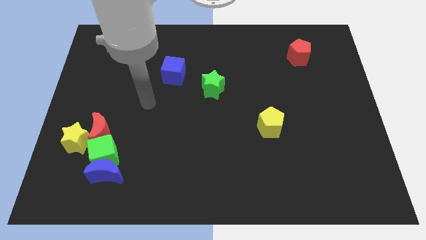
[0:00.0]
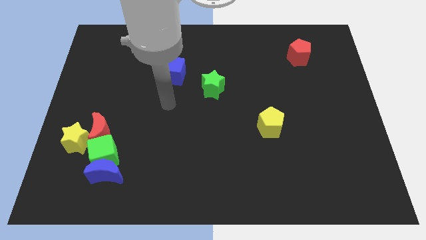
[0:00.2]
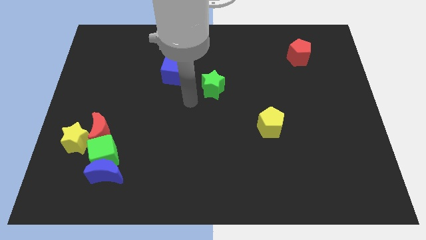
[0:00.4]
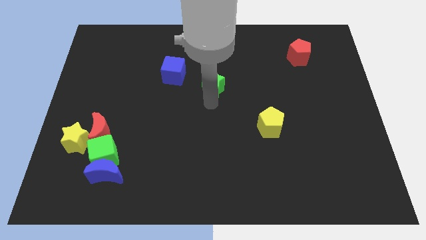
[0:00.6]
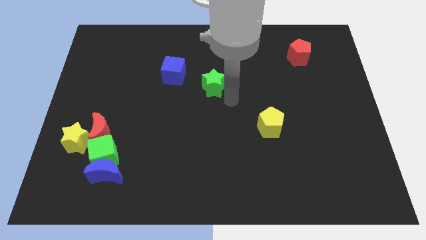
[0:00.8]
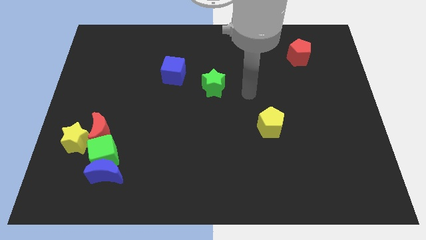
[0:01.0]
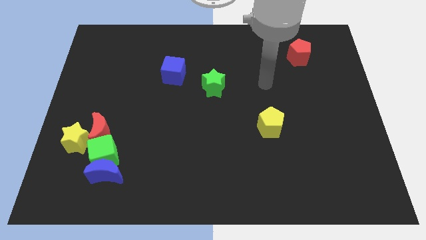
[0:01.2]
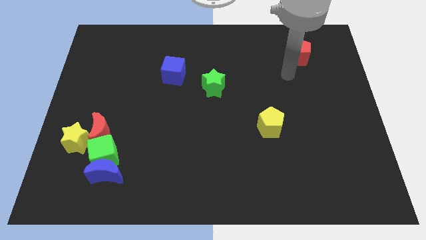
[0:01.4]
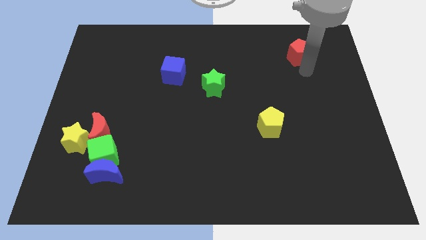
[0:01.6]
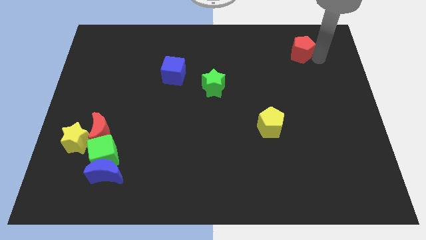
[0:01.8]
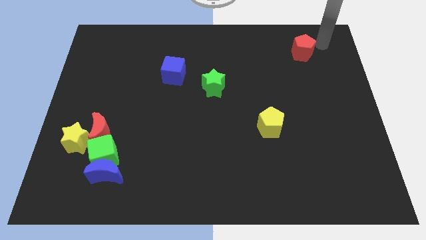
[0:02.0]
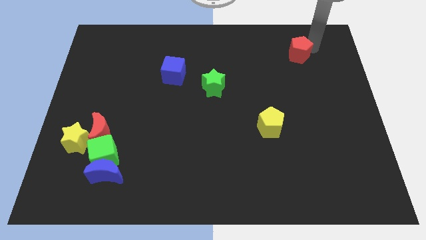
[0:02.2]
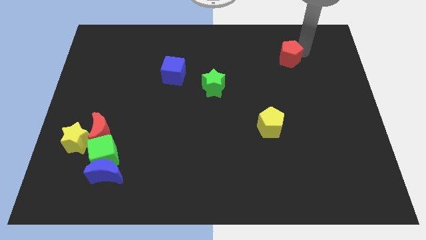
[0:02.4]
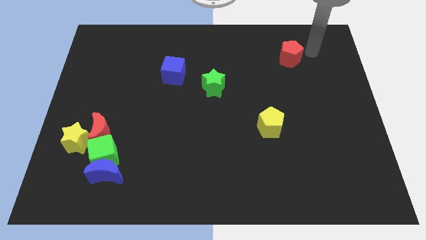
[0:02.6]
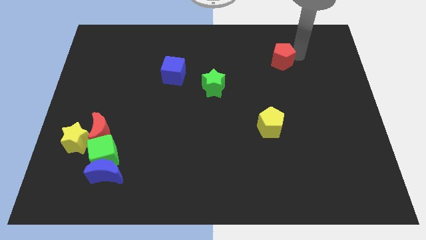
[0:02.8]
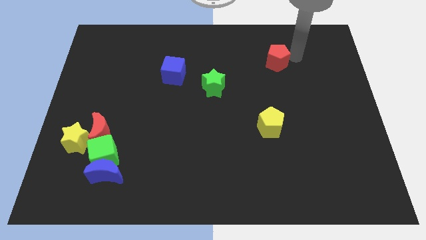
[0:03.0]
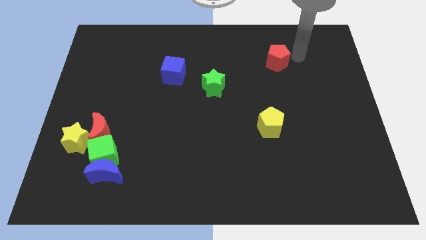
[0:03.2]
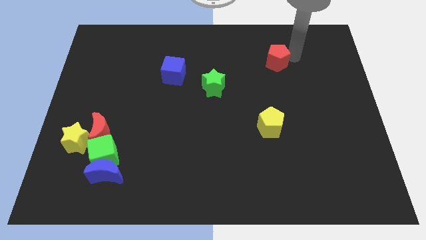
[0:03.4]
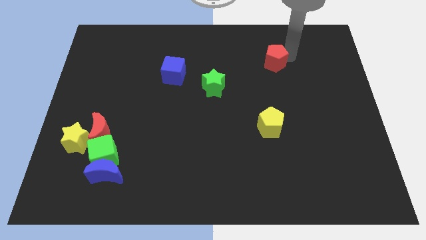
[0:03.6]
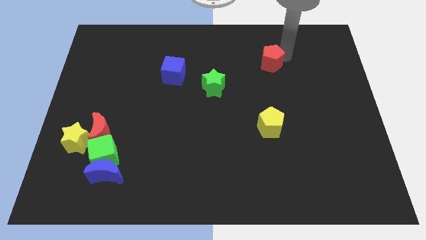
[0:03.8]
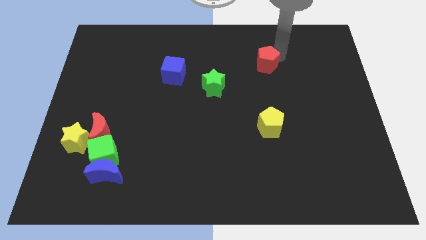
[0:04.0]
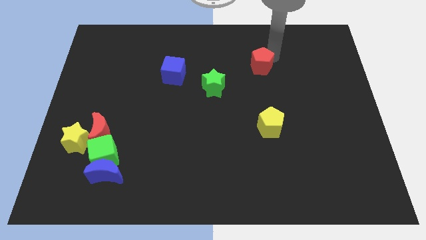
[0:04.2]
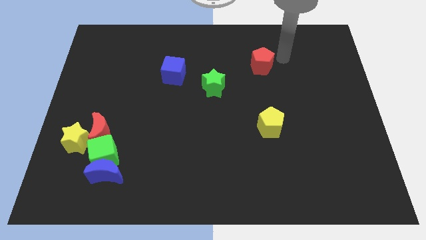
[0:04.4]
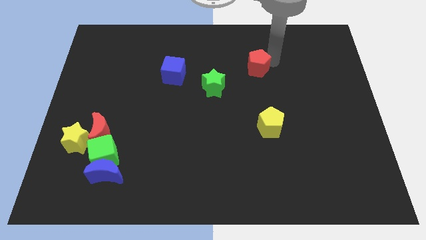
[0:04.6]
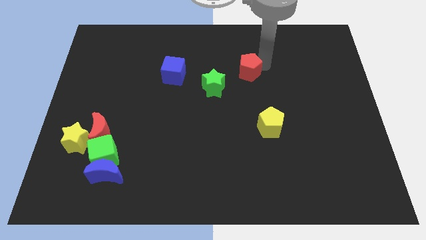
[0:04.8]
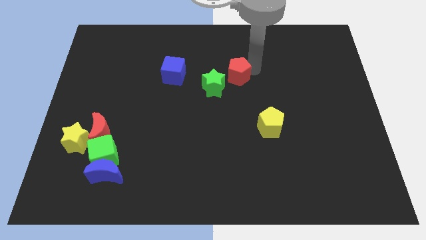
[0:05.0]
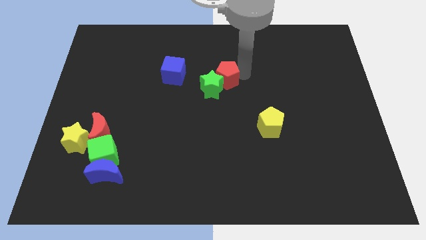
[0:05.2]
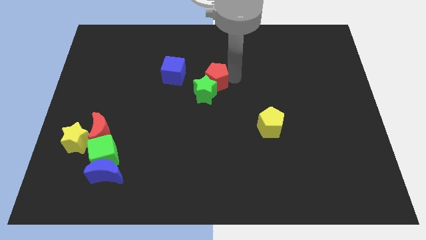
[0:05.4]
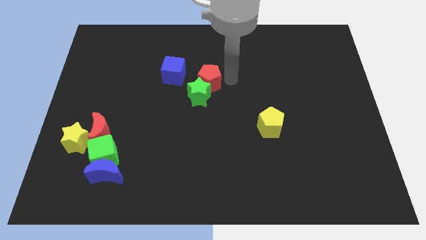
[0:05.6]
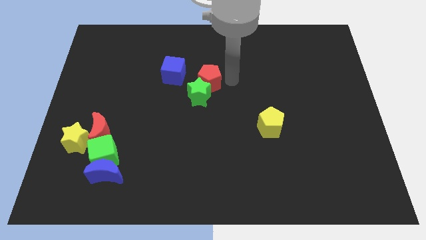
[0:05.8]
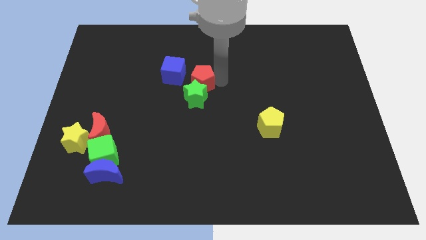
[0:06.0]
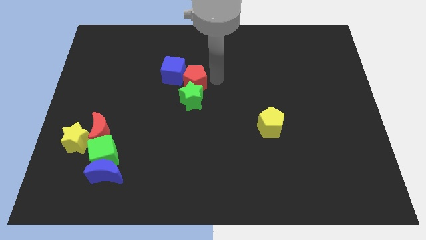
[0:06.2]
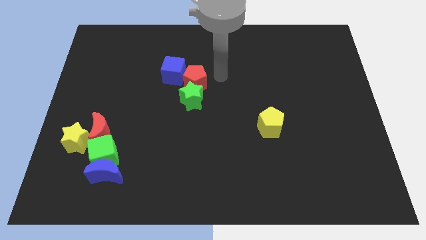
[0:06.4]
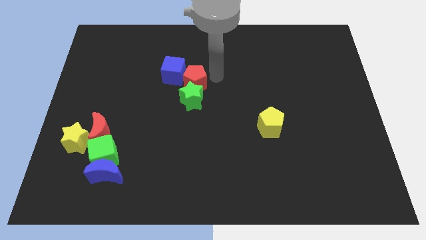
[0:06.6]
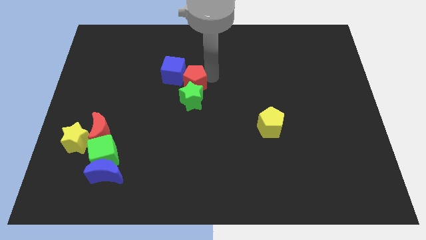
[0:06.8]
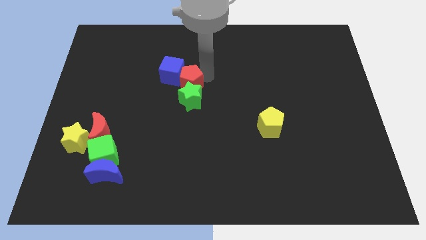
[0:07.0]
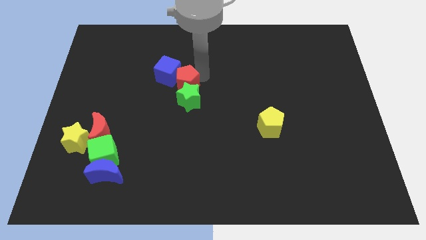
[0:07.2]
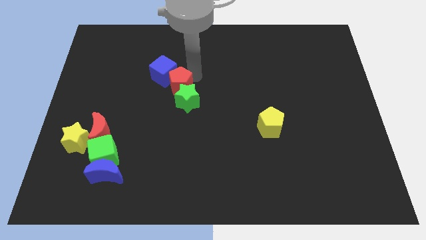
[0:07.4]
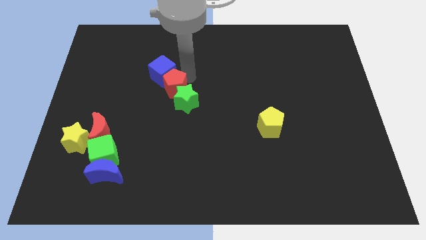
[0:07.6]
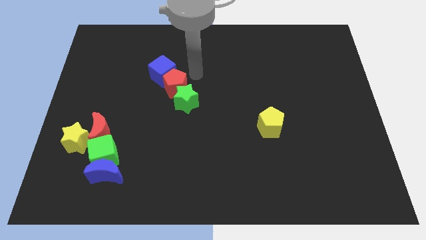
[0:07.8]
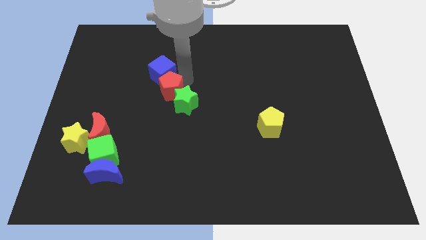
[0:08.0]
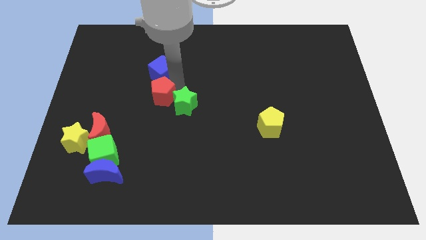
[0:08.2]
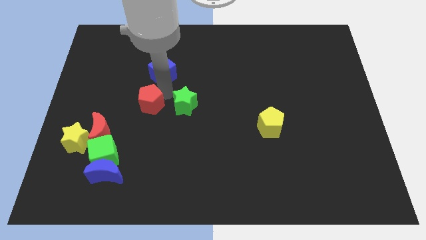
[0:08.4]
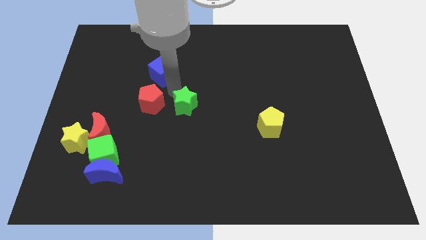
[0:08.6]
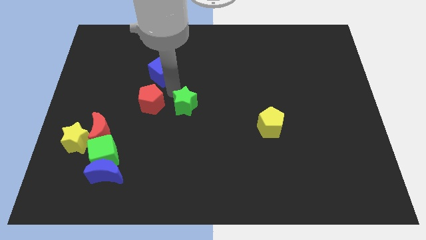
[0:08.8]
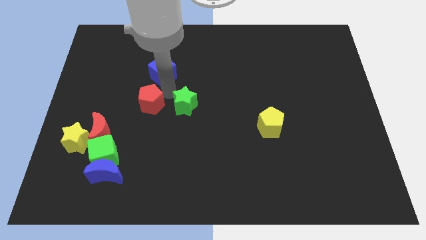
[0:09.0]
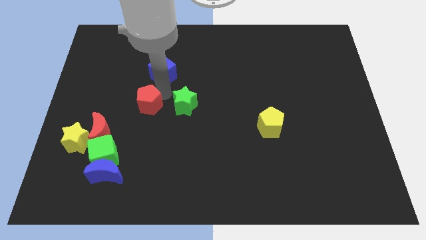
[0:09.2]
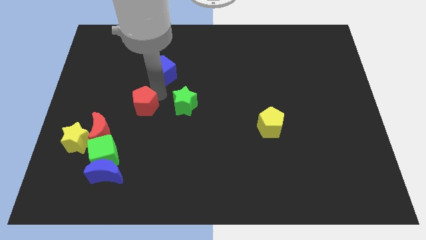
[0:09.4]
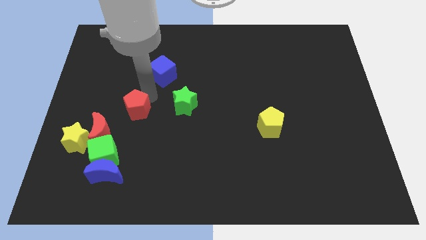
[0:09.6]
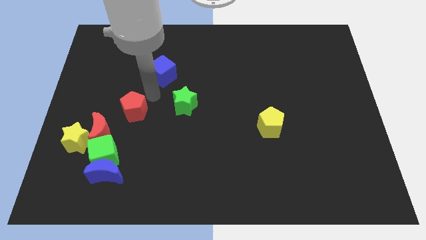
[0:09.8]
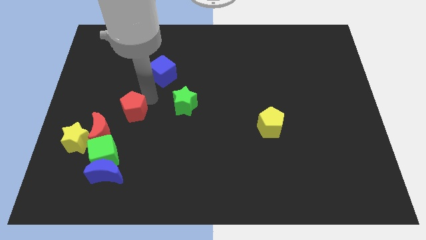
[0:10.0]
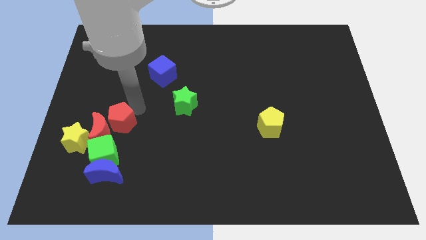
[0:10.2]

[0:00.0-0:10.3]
slide the red pentagon close to the red moon

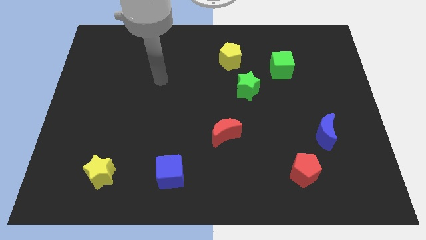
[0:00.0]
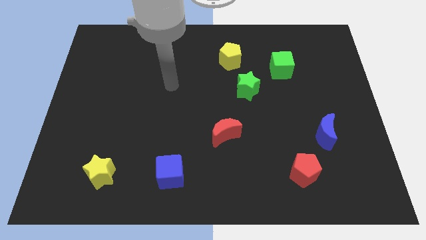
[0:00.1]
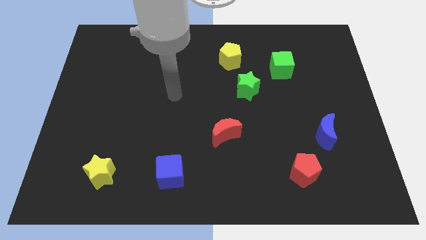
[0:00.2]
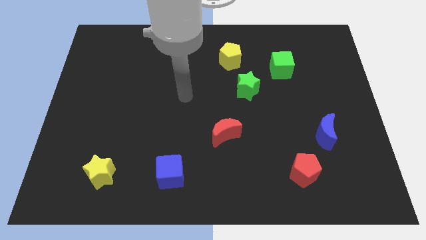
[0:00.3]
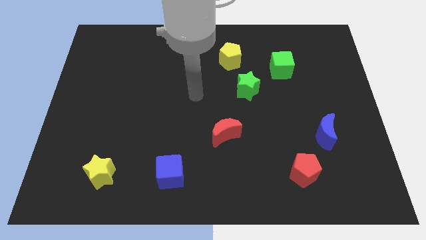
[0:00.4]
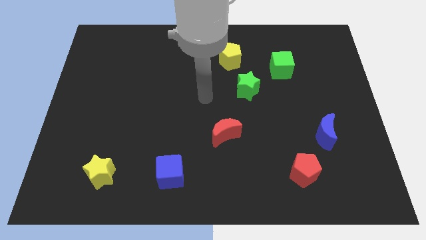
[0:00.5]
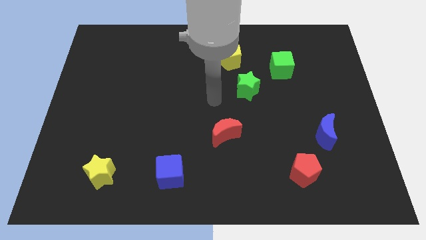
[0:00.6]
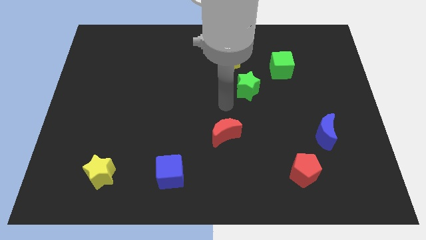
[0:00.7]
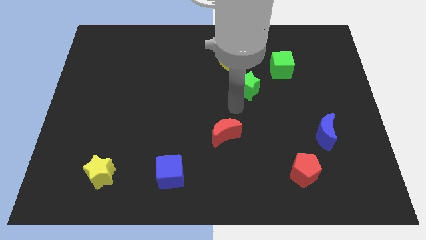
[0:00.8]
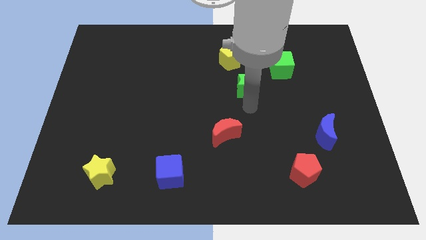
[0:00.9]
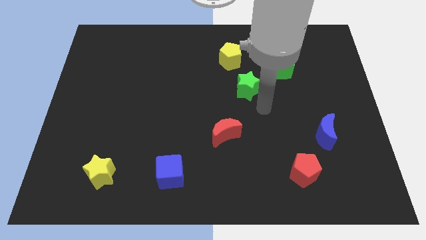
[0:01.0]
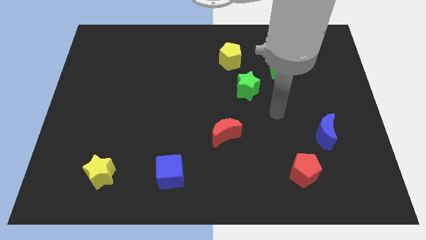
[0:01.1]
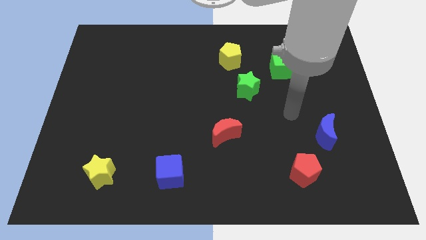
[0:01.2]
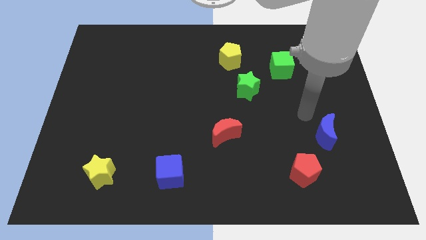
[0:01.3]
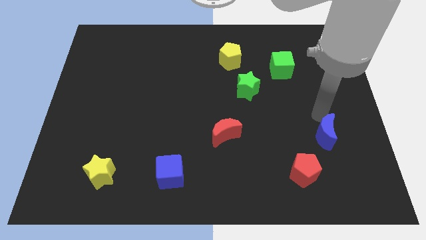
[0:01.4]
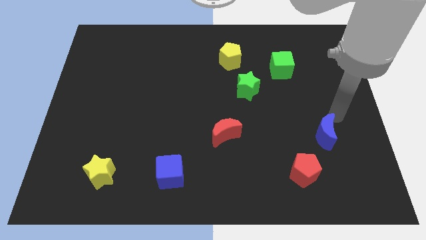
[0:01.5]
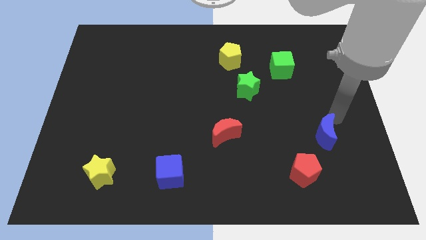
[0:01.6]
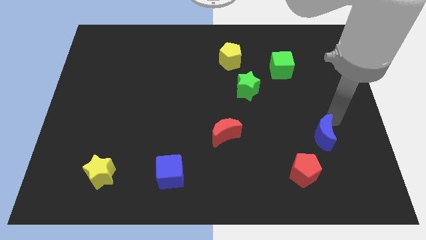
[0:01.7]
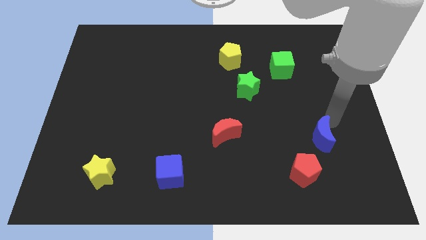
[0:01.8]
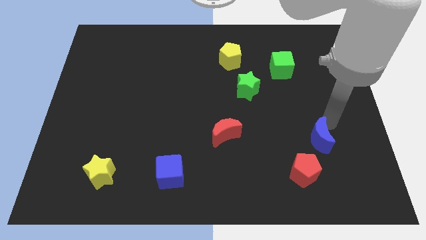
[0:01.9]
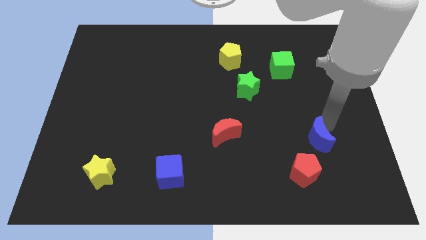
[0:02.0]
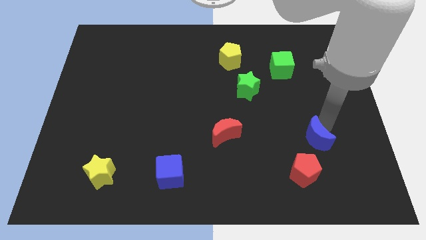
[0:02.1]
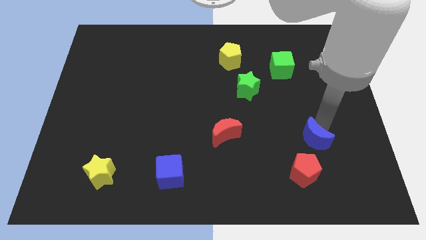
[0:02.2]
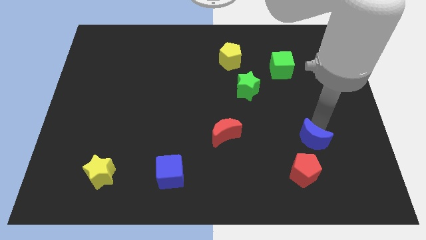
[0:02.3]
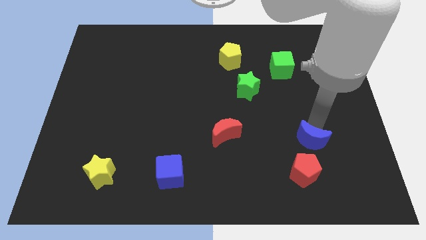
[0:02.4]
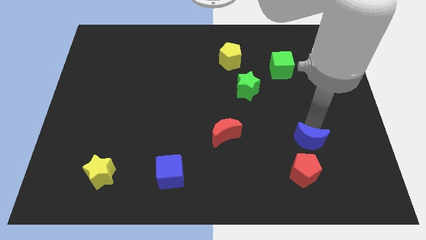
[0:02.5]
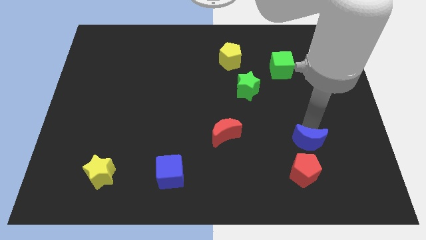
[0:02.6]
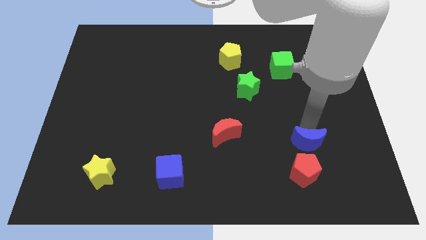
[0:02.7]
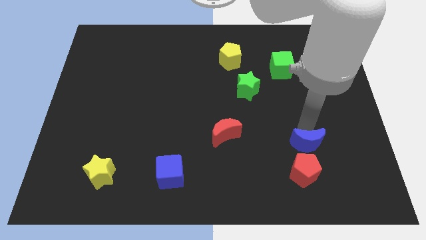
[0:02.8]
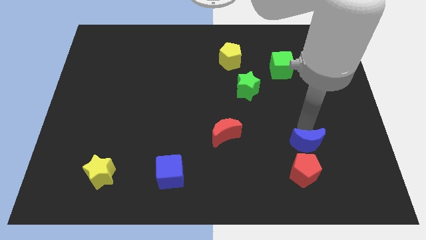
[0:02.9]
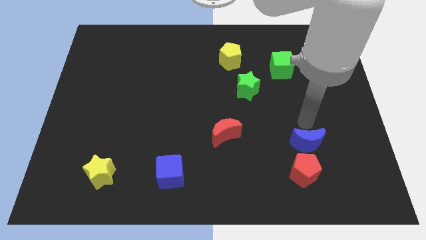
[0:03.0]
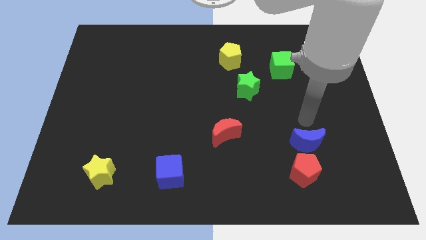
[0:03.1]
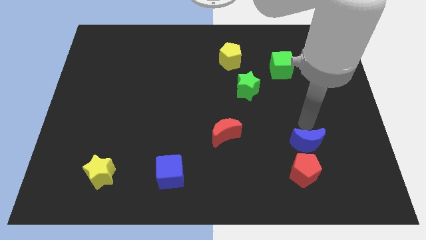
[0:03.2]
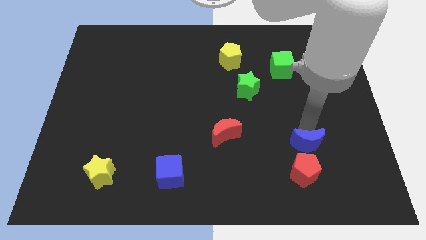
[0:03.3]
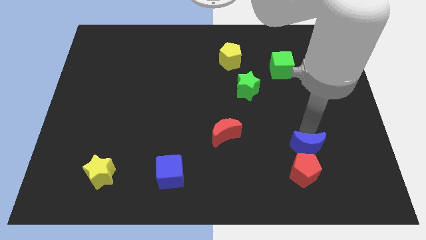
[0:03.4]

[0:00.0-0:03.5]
move the blue moon towards the red pentagon
